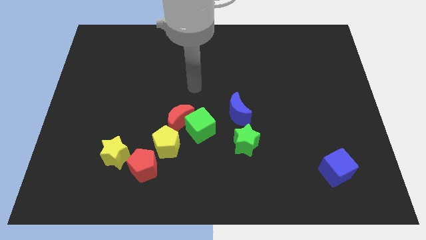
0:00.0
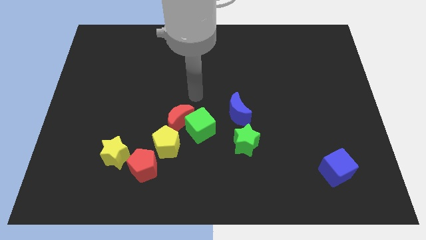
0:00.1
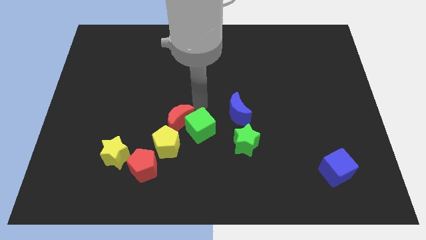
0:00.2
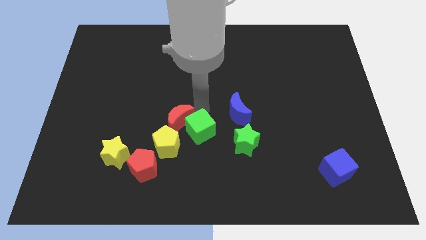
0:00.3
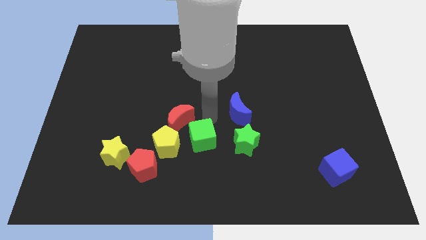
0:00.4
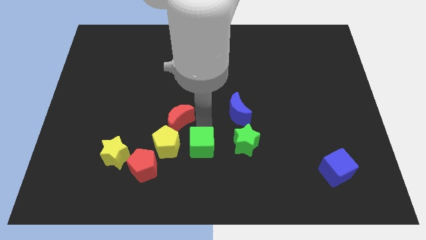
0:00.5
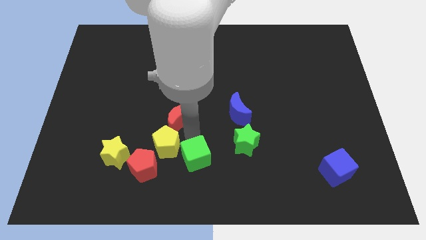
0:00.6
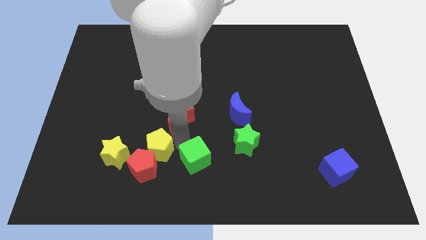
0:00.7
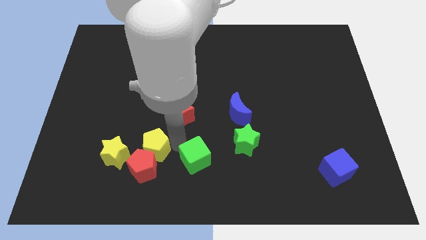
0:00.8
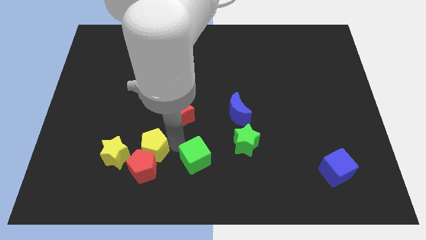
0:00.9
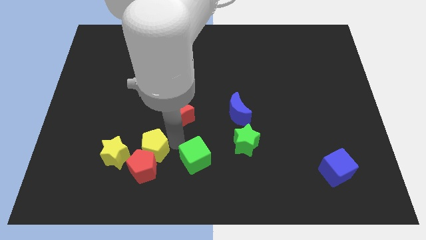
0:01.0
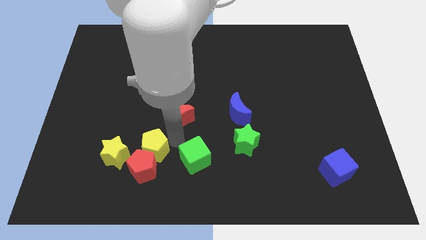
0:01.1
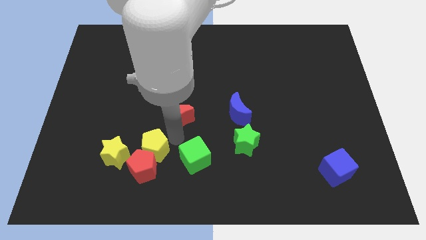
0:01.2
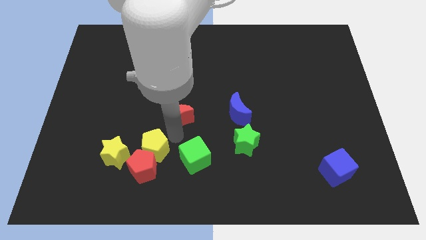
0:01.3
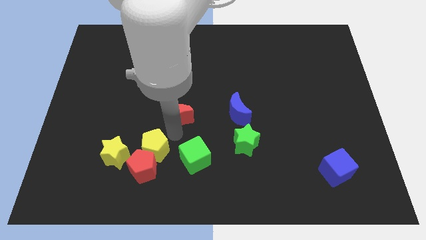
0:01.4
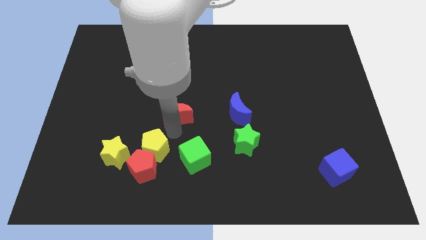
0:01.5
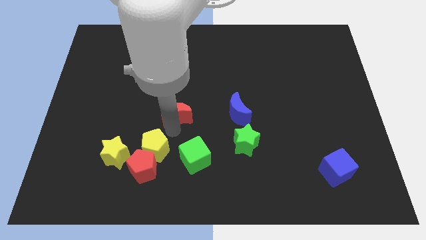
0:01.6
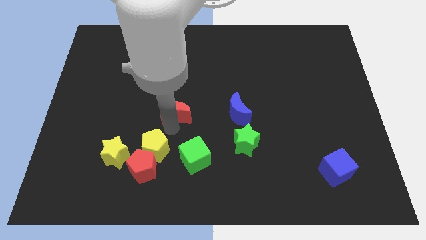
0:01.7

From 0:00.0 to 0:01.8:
pull the red moon apart from the green cube and yellow pentagon

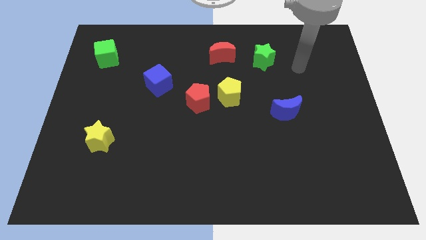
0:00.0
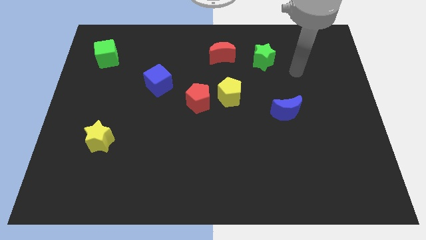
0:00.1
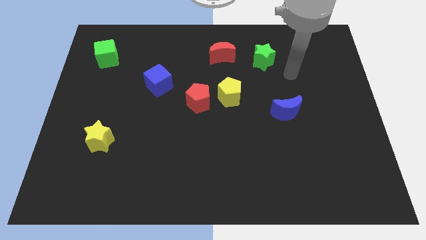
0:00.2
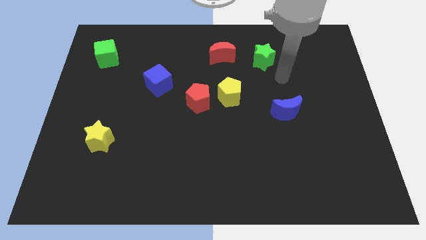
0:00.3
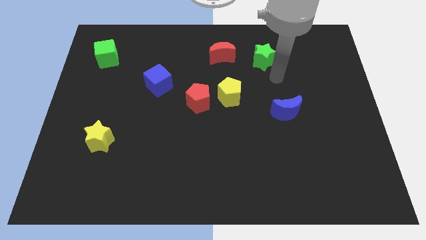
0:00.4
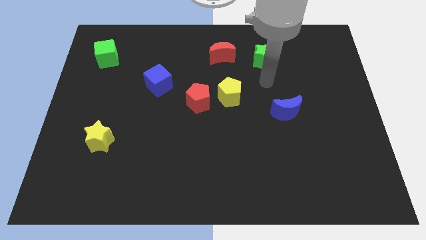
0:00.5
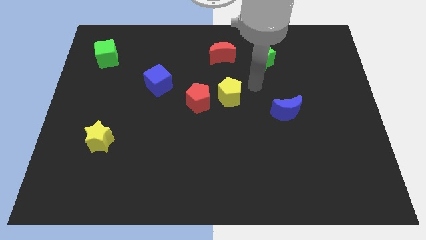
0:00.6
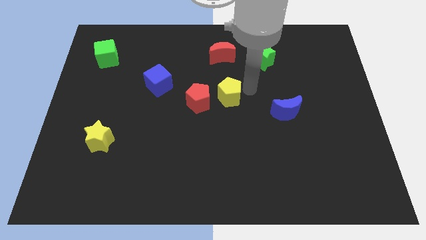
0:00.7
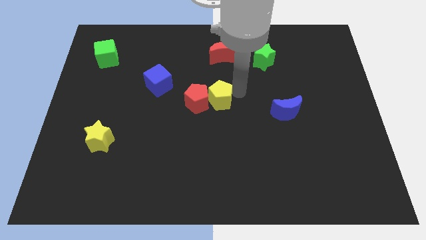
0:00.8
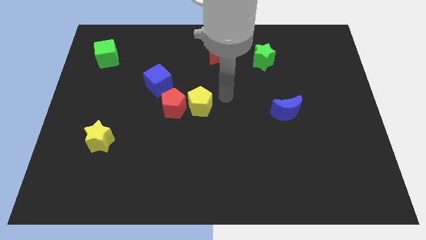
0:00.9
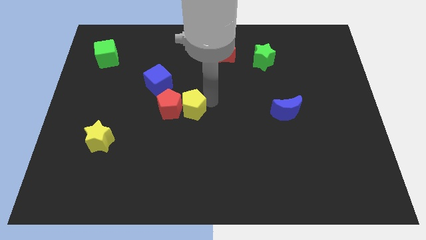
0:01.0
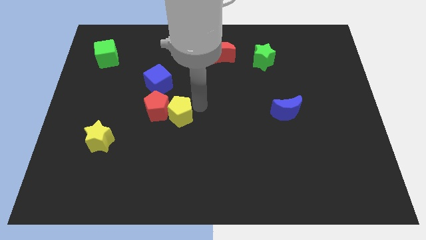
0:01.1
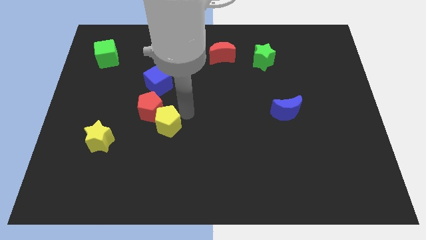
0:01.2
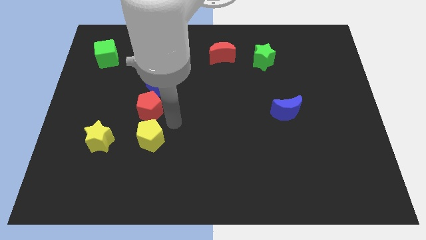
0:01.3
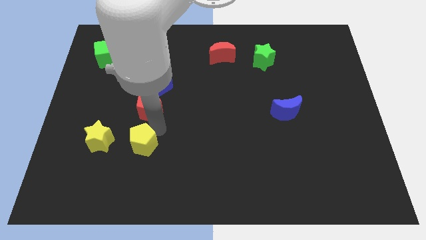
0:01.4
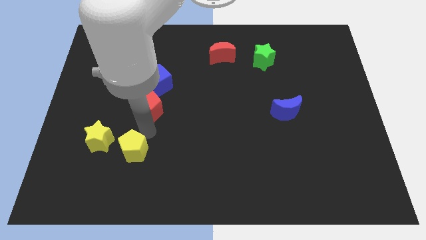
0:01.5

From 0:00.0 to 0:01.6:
move the red pentagon away from the yellow pentagon

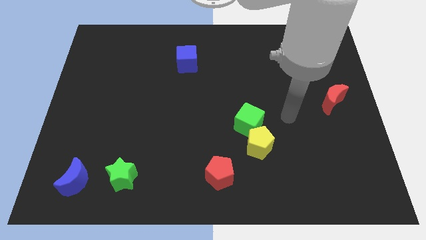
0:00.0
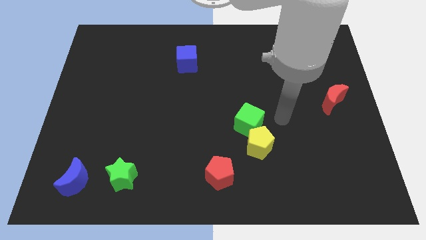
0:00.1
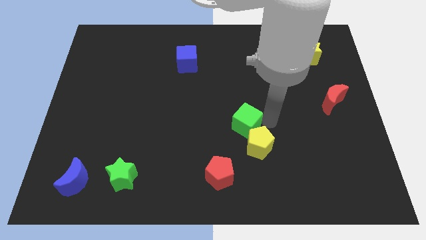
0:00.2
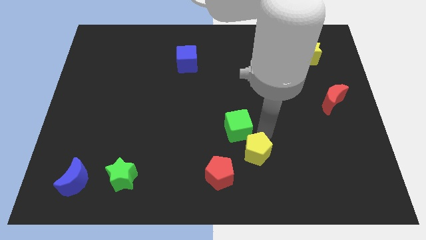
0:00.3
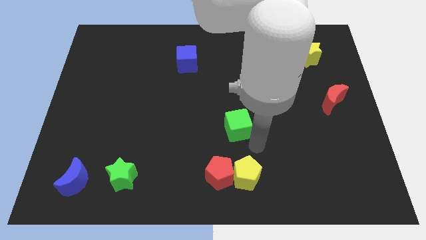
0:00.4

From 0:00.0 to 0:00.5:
pull the green cube apart from the yellow pentagon

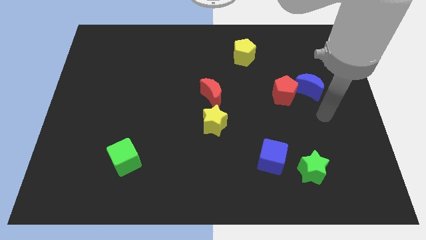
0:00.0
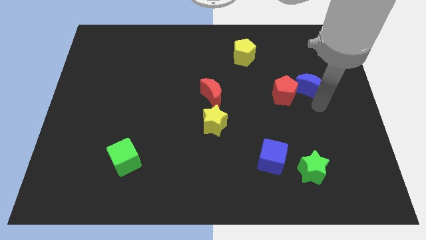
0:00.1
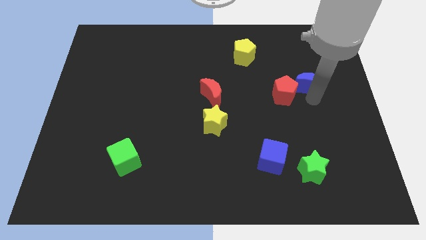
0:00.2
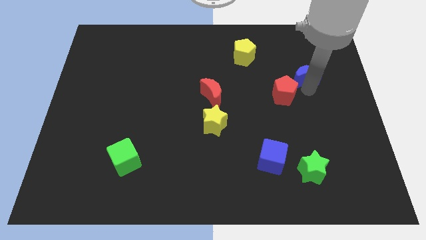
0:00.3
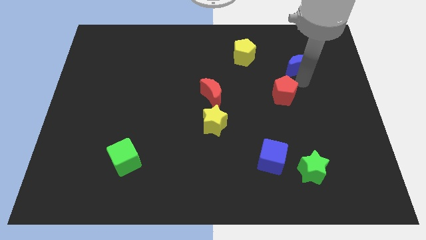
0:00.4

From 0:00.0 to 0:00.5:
separate the red pentagon from the blue moon

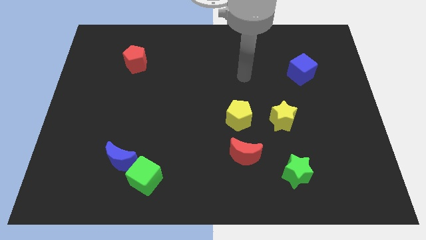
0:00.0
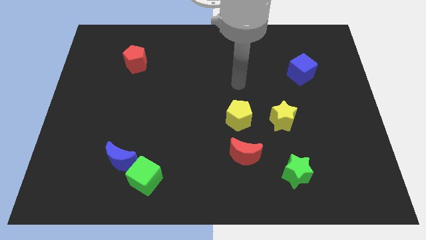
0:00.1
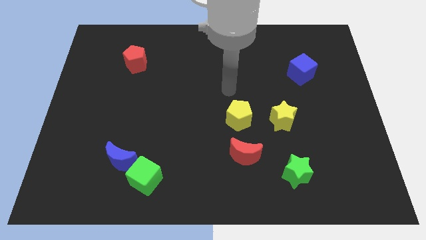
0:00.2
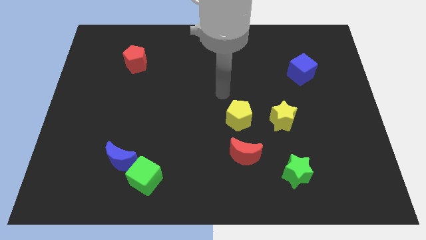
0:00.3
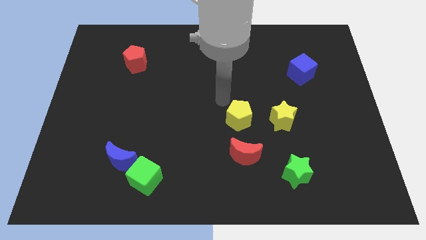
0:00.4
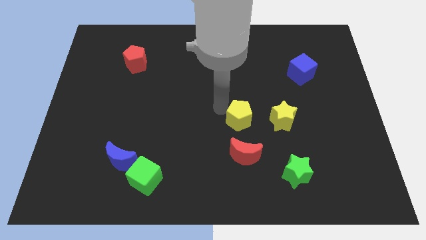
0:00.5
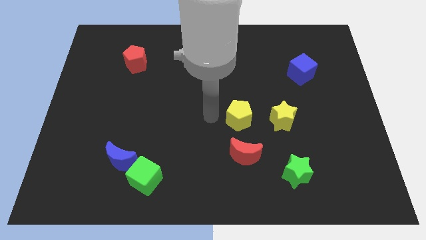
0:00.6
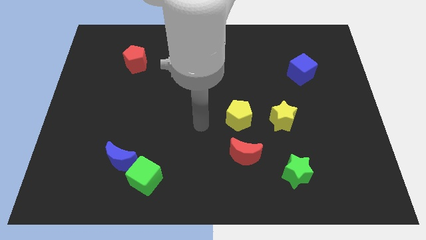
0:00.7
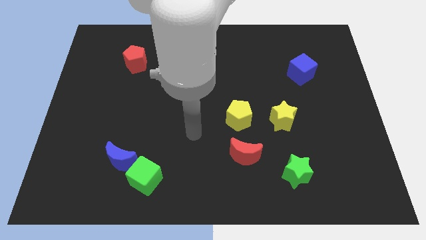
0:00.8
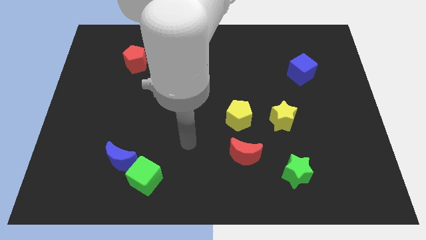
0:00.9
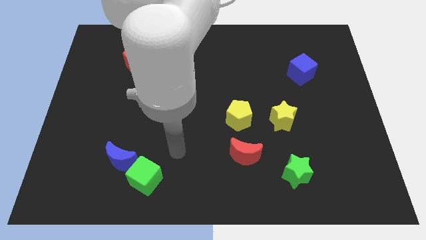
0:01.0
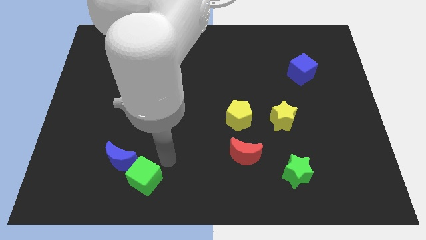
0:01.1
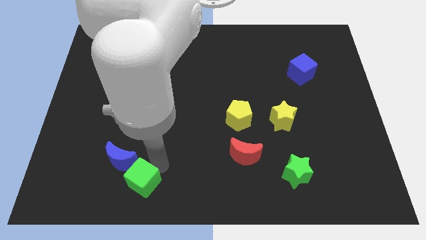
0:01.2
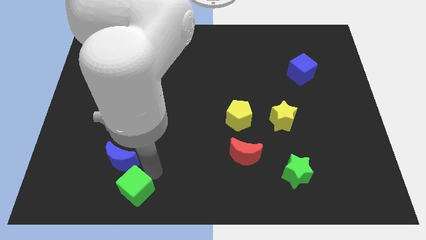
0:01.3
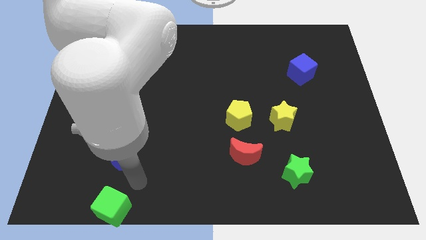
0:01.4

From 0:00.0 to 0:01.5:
move the blue moon away from the green cube

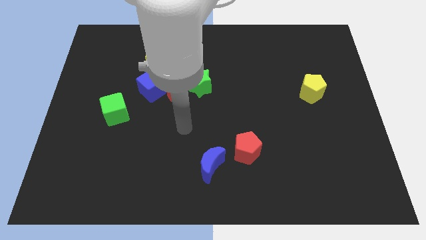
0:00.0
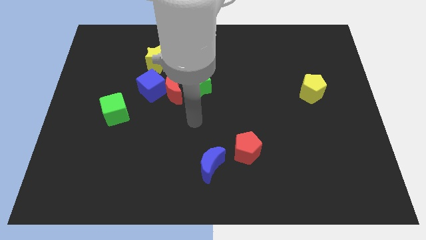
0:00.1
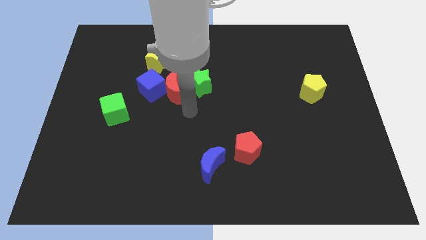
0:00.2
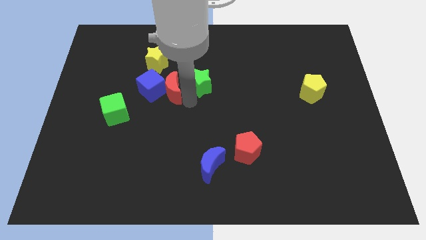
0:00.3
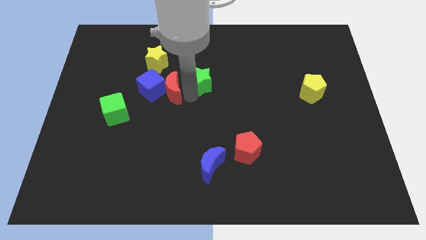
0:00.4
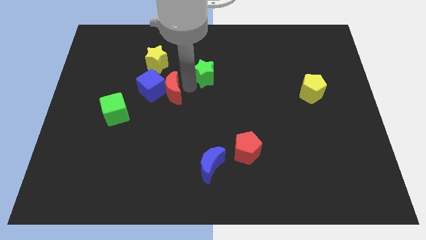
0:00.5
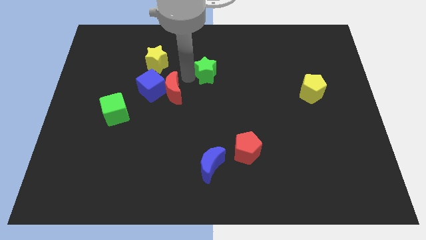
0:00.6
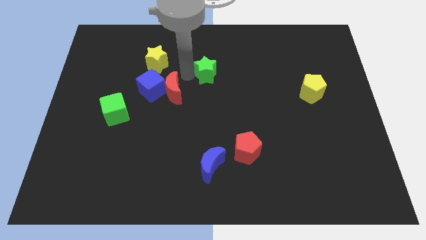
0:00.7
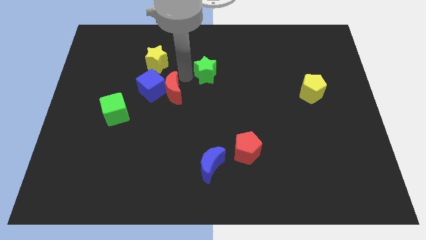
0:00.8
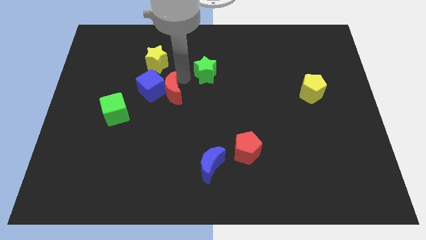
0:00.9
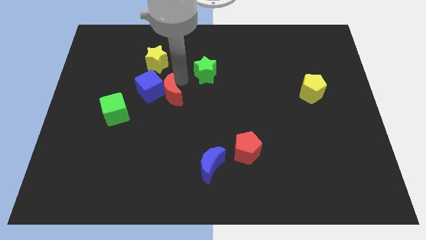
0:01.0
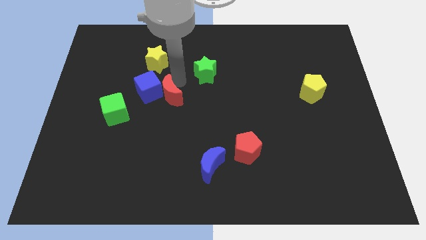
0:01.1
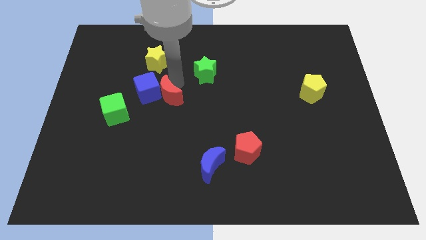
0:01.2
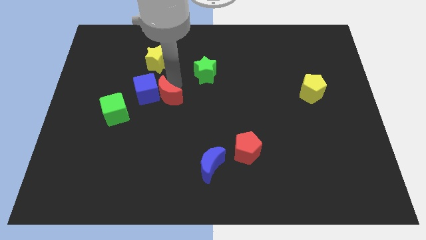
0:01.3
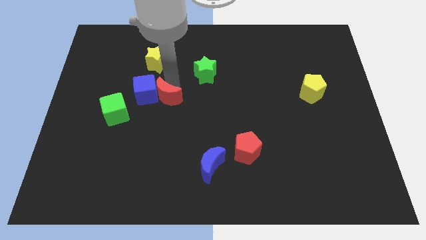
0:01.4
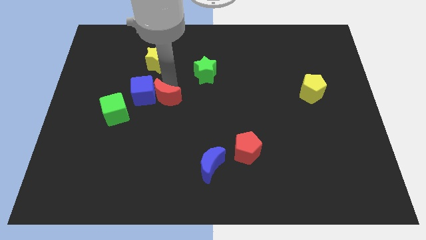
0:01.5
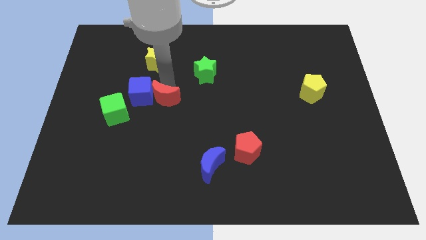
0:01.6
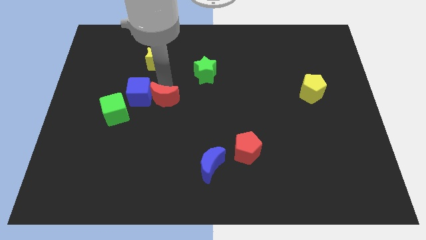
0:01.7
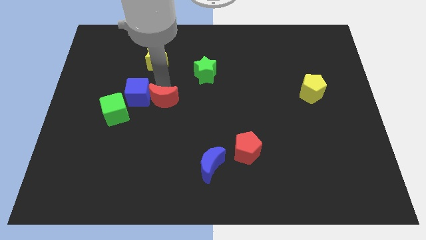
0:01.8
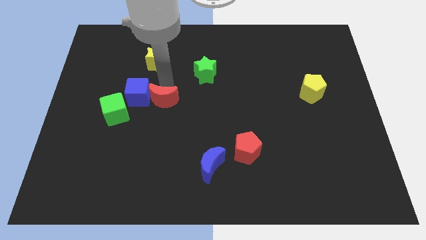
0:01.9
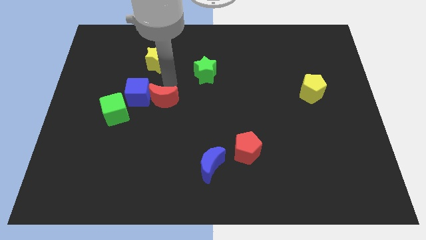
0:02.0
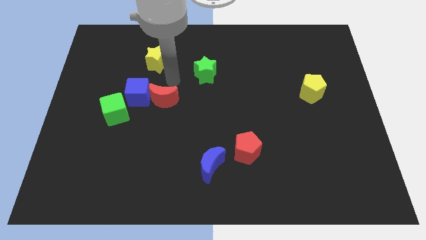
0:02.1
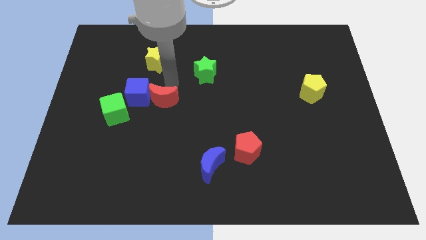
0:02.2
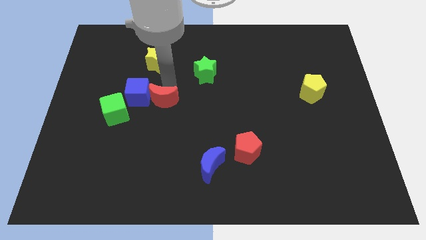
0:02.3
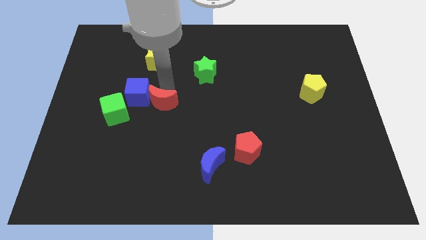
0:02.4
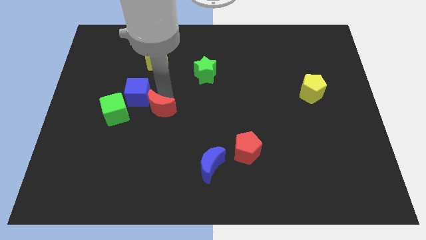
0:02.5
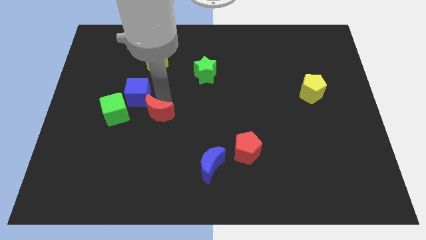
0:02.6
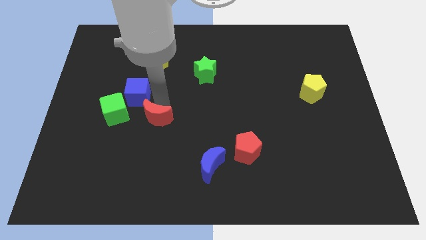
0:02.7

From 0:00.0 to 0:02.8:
pull the red moon apart from the blue cube and green star

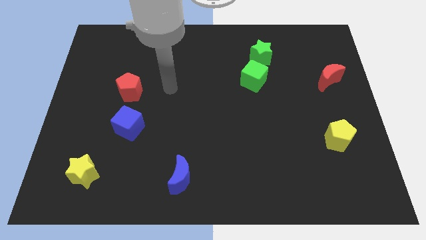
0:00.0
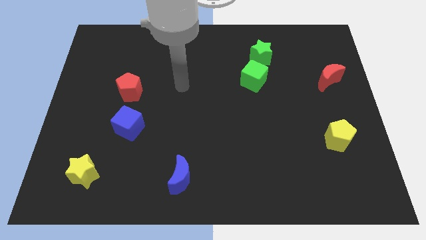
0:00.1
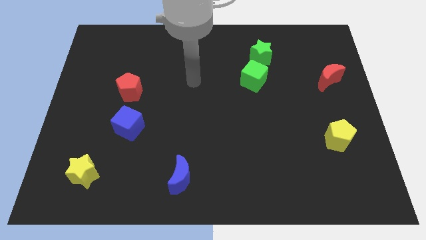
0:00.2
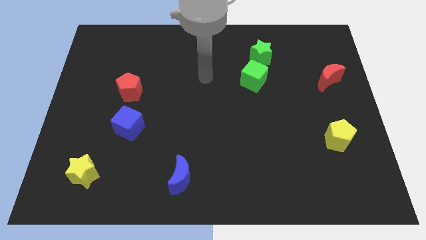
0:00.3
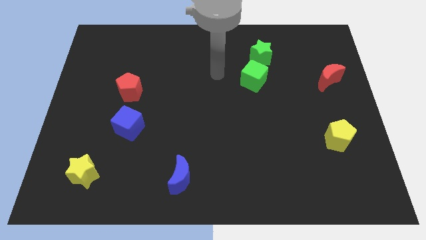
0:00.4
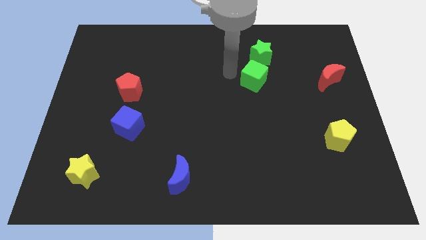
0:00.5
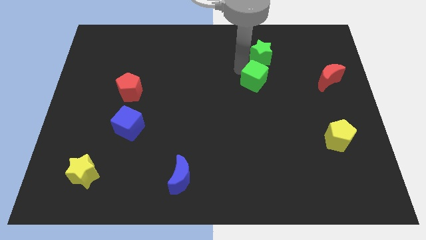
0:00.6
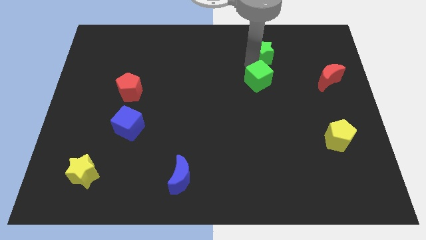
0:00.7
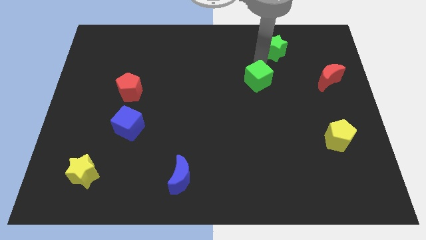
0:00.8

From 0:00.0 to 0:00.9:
move the green cube away from the green star
